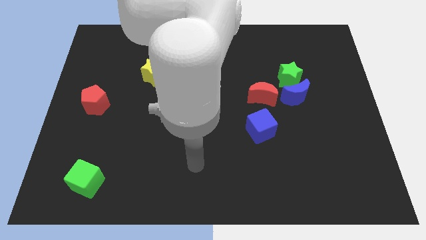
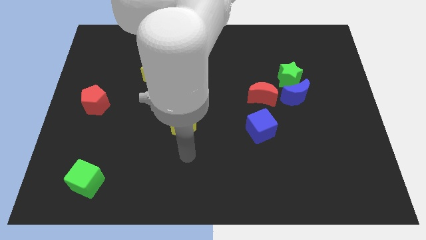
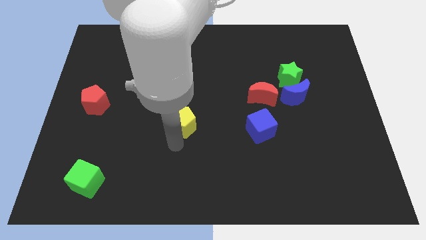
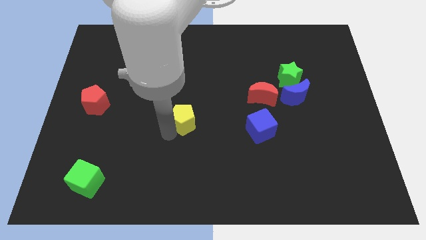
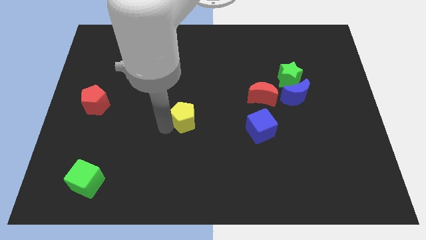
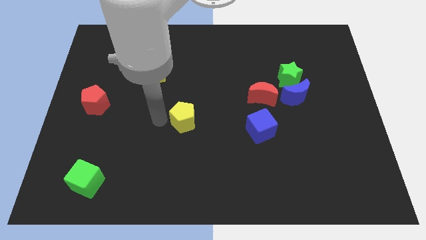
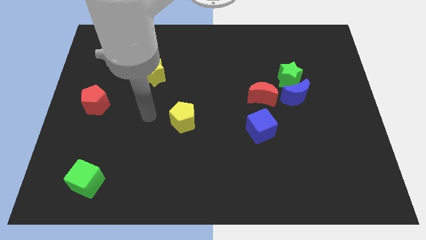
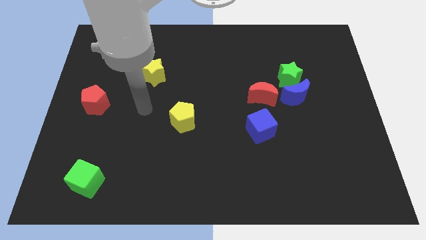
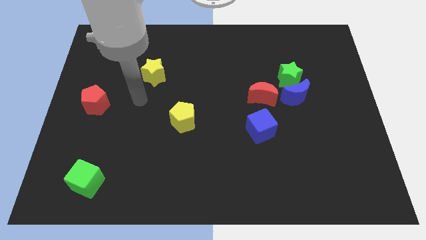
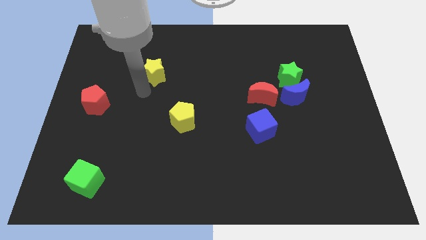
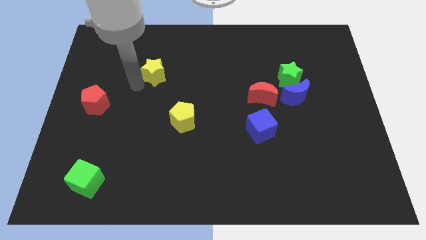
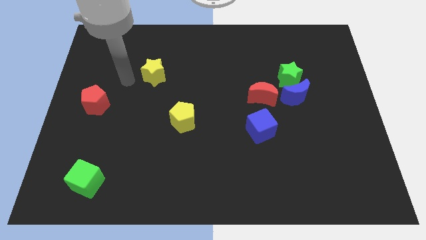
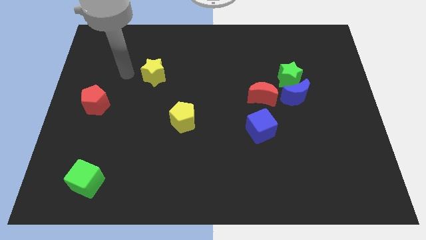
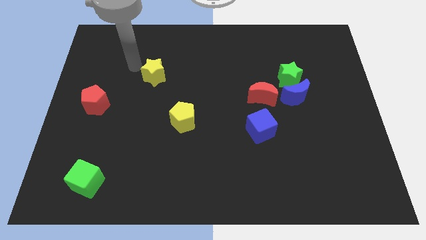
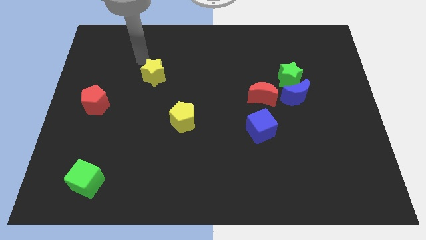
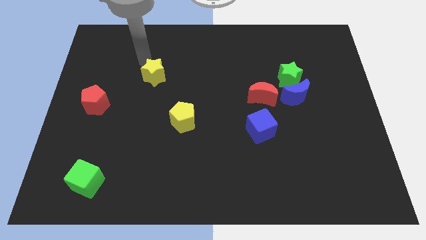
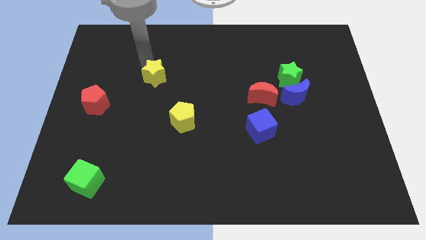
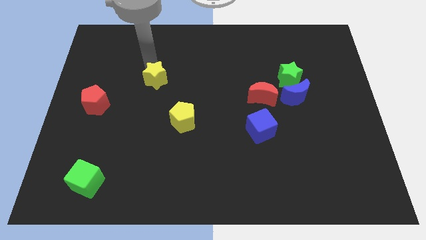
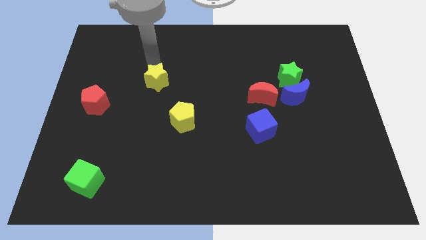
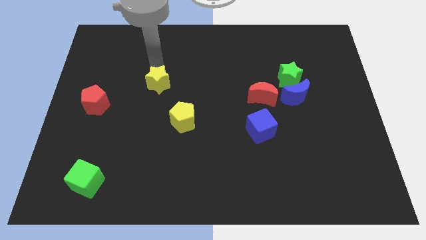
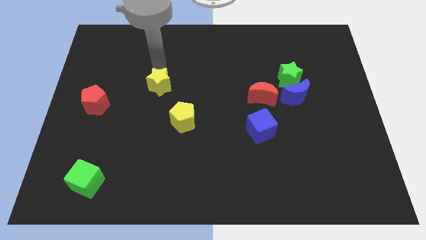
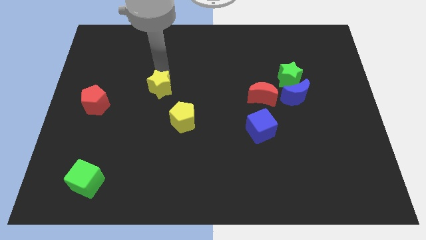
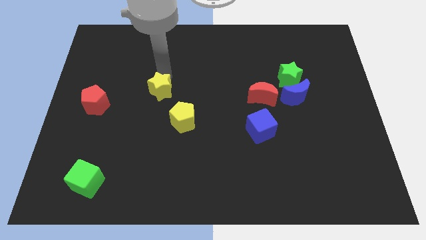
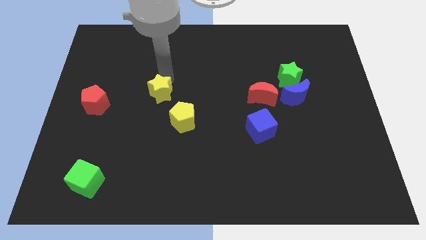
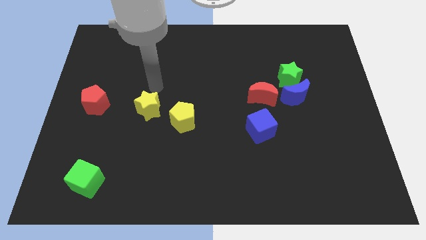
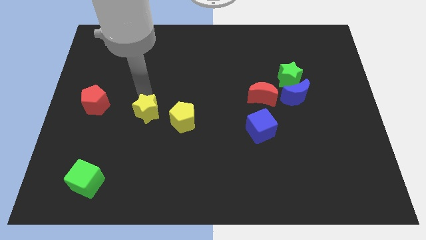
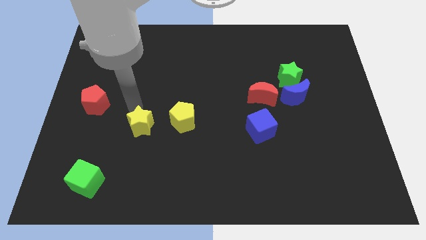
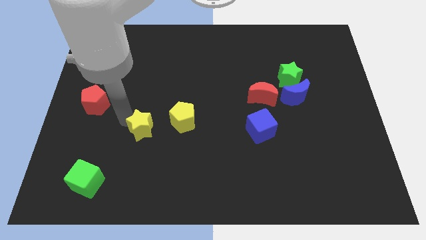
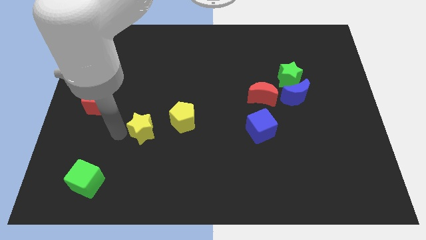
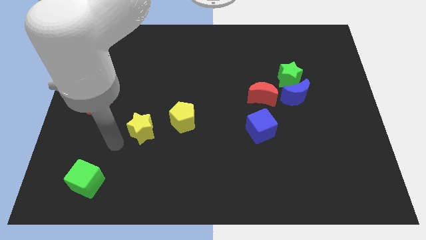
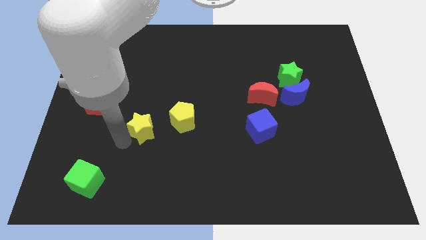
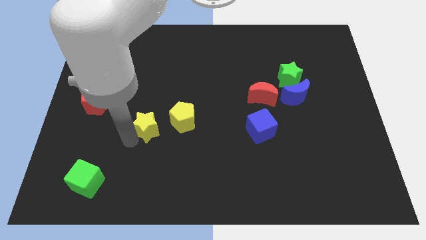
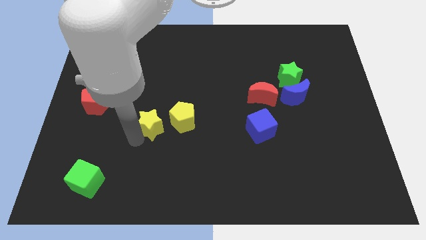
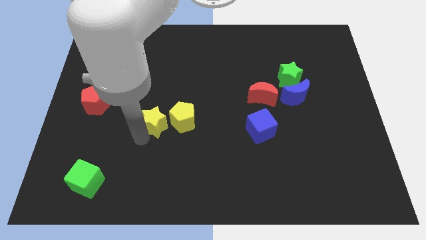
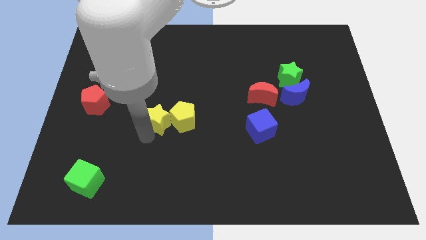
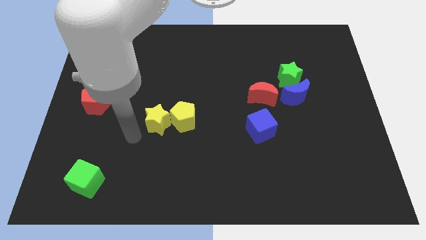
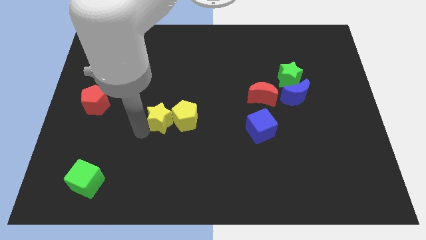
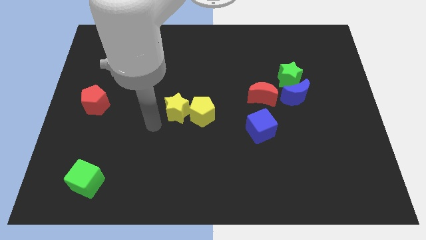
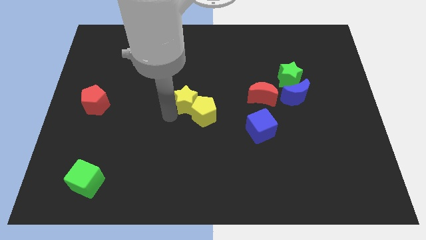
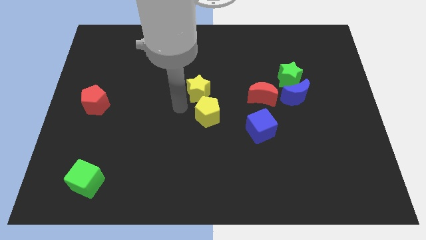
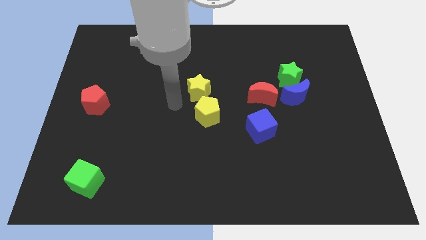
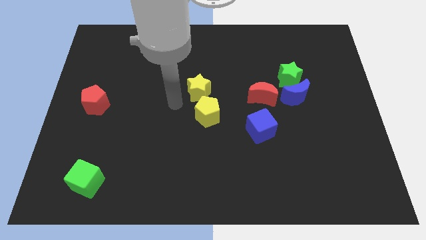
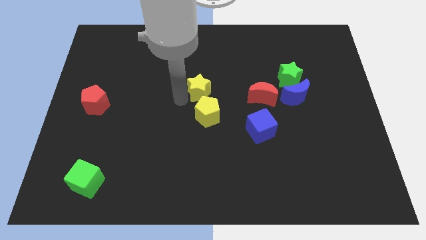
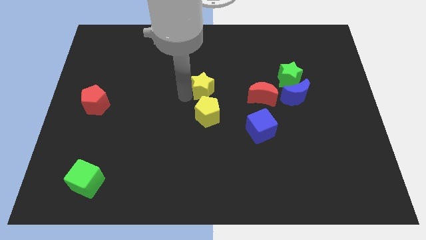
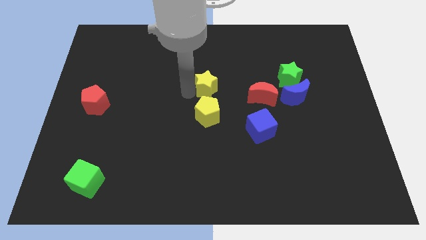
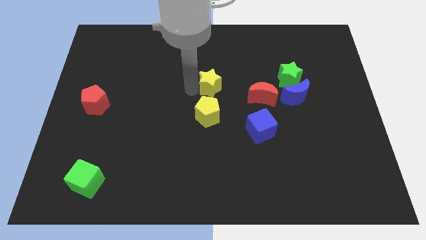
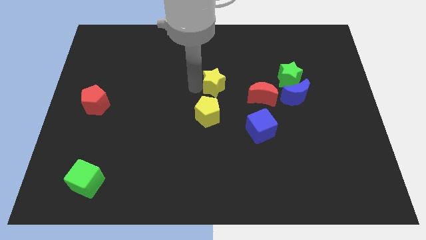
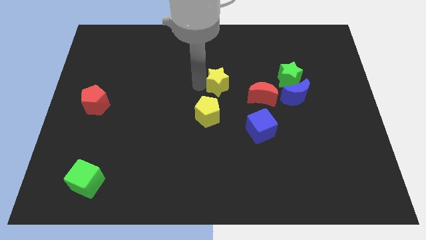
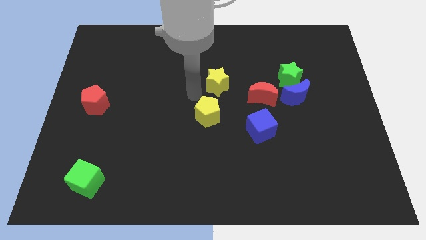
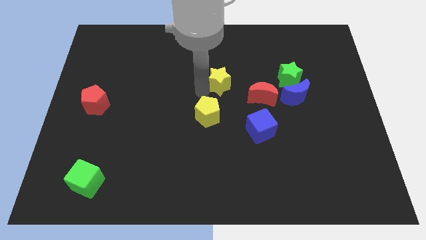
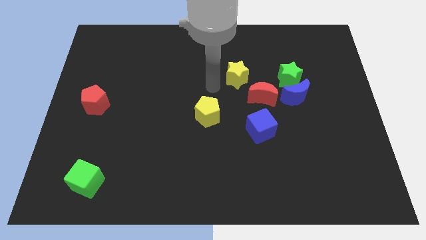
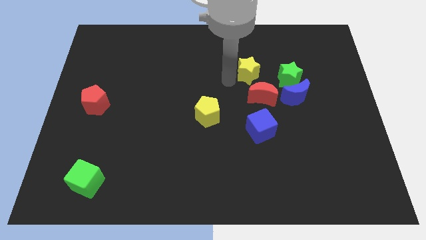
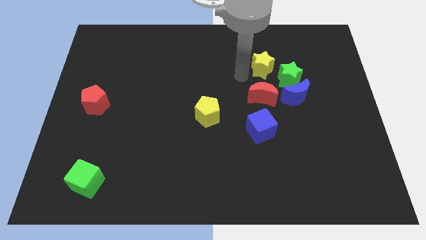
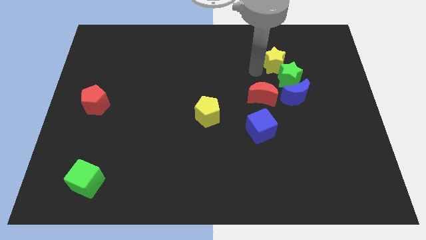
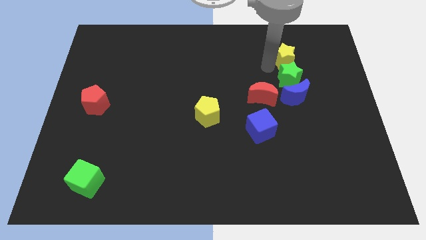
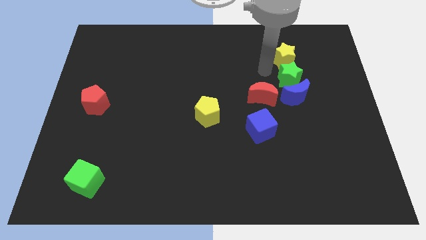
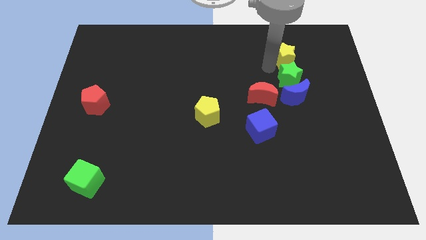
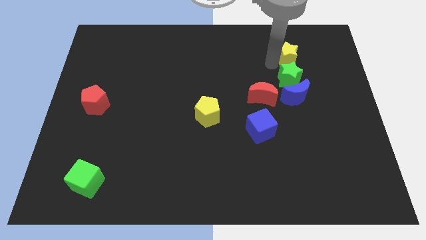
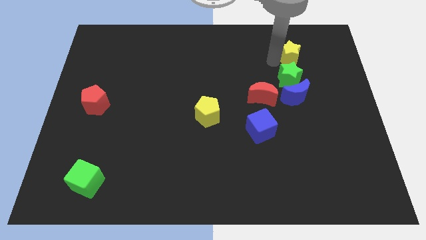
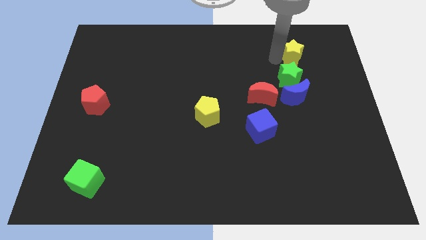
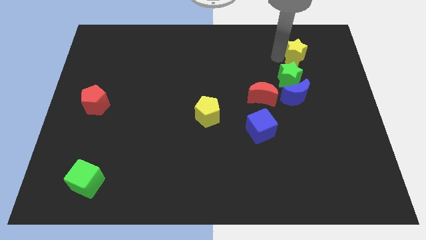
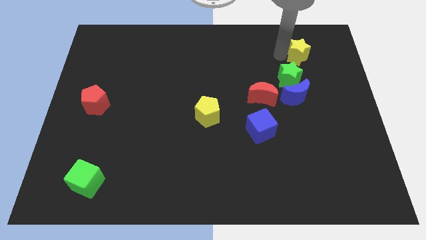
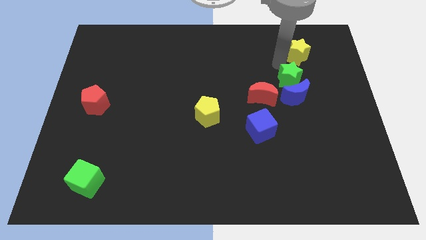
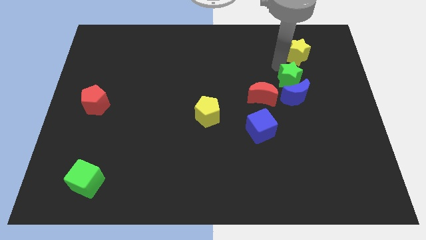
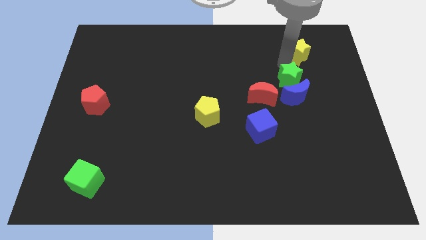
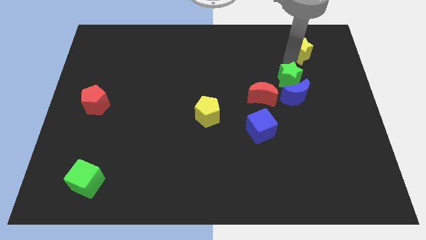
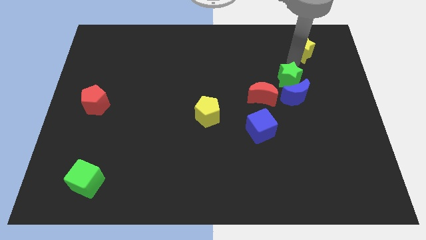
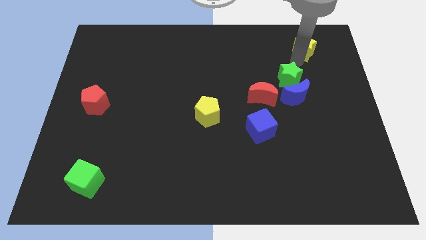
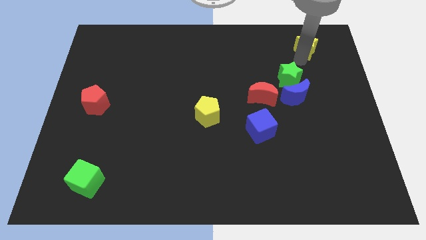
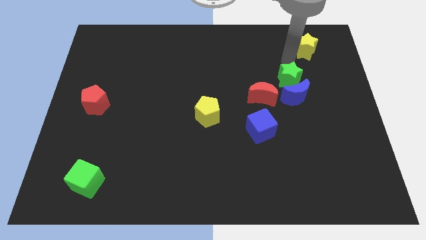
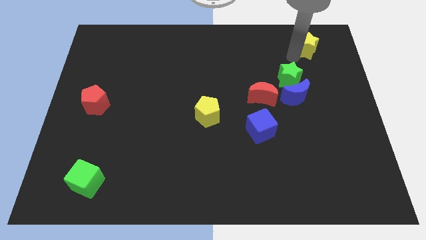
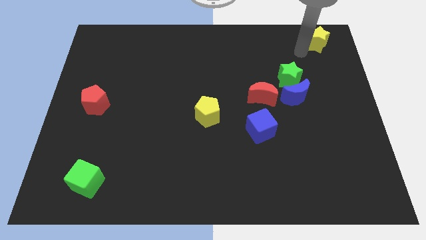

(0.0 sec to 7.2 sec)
move the yellow star to the top right of the board
